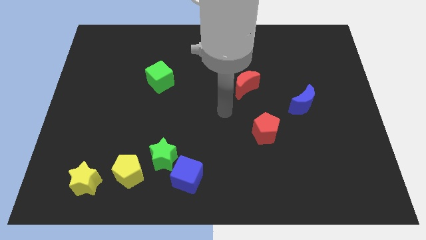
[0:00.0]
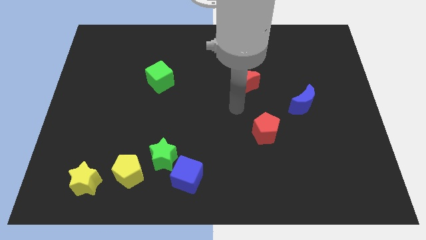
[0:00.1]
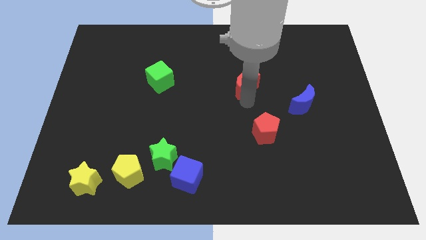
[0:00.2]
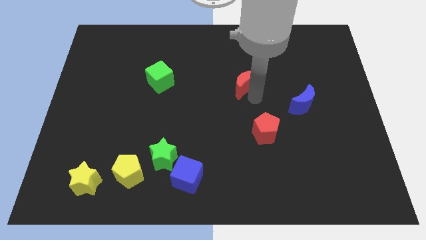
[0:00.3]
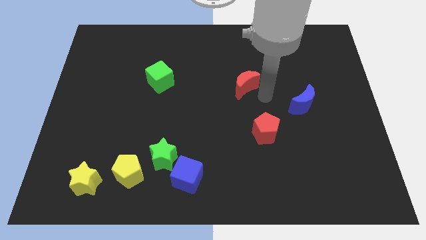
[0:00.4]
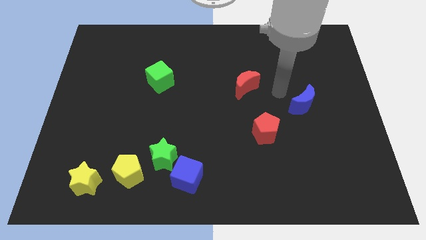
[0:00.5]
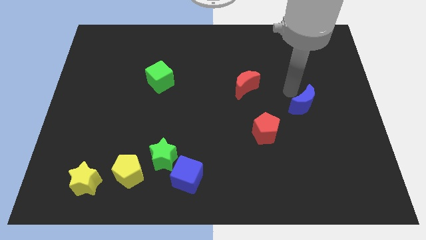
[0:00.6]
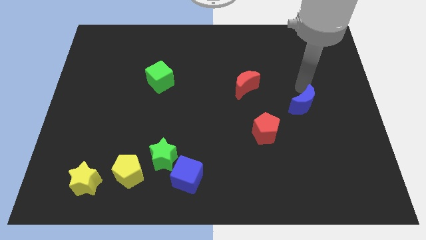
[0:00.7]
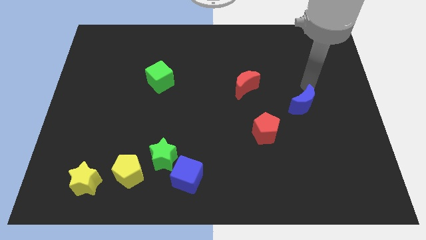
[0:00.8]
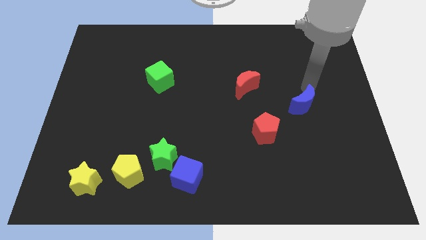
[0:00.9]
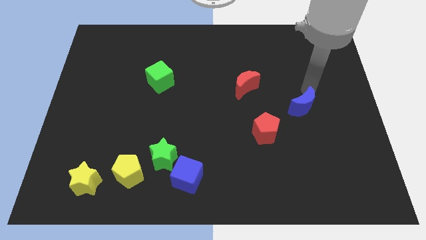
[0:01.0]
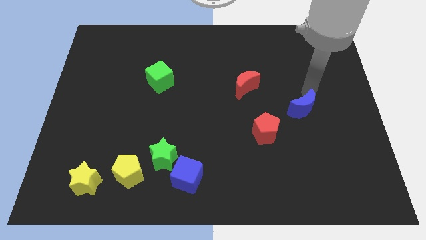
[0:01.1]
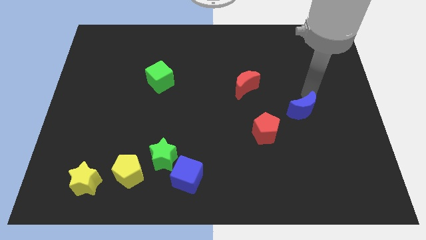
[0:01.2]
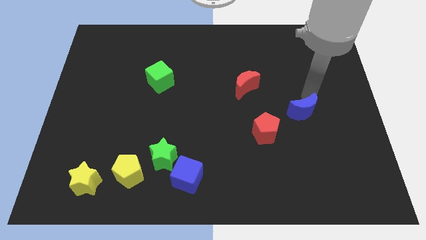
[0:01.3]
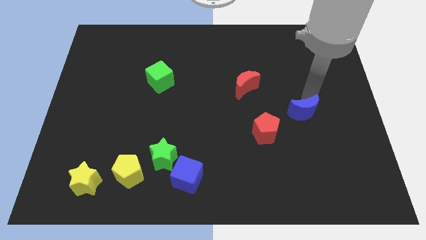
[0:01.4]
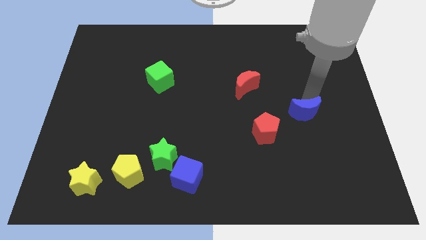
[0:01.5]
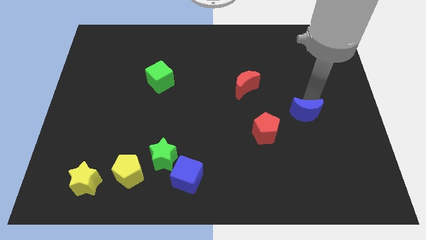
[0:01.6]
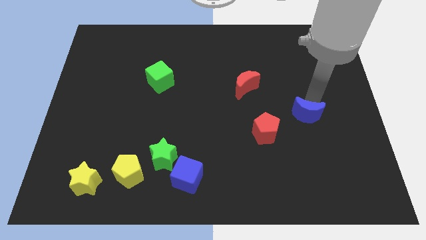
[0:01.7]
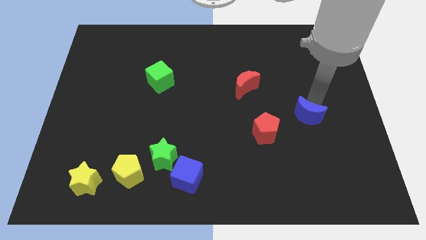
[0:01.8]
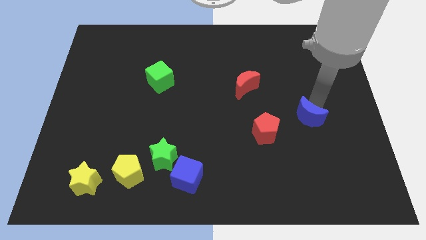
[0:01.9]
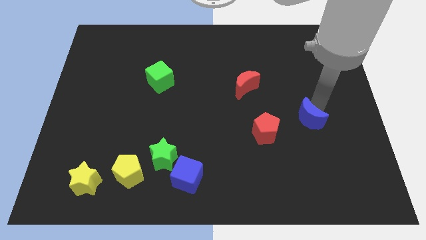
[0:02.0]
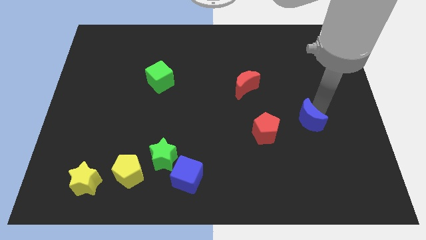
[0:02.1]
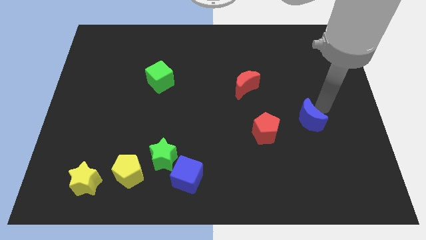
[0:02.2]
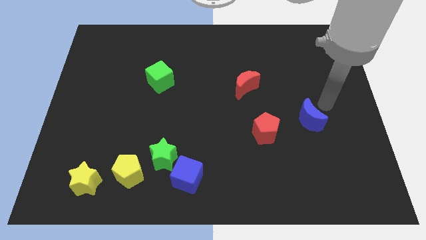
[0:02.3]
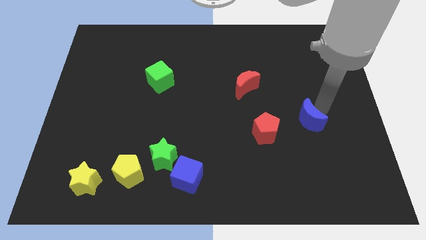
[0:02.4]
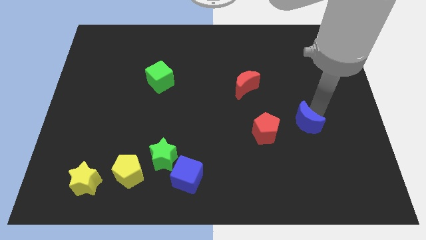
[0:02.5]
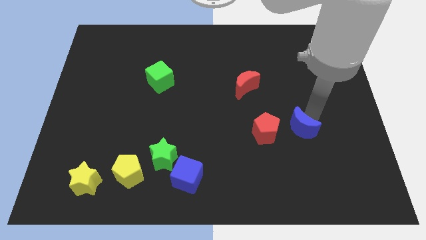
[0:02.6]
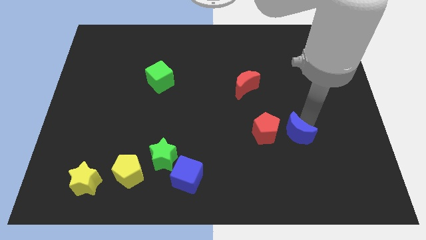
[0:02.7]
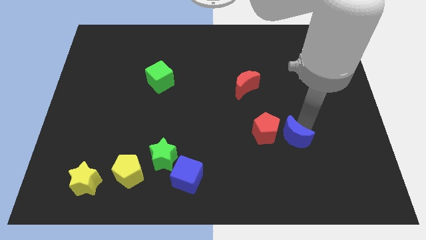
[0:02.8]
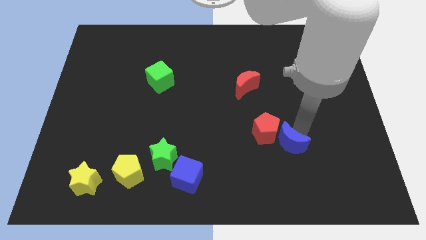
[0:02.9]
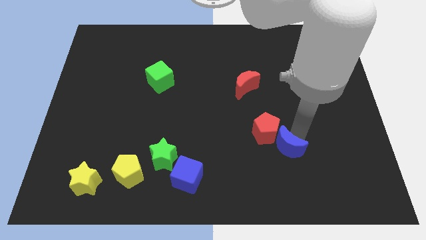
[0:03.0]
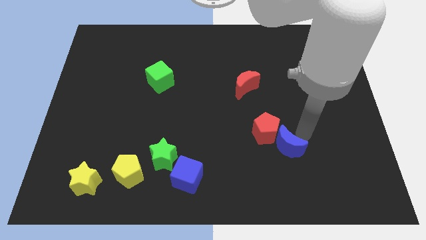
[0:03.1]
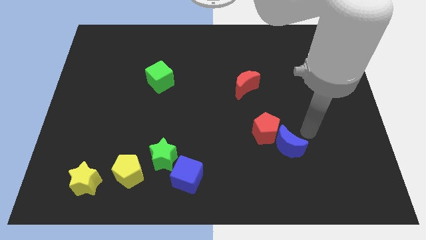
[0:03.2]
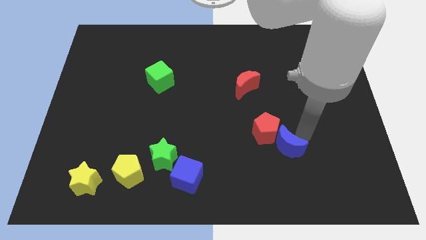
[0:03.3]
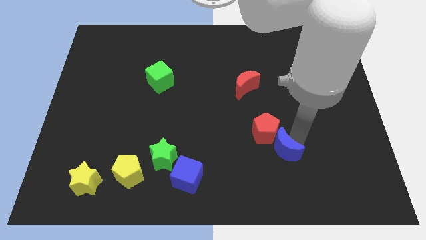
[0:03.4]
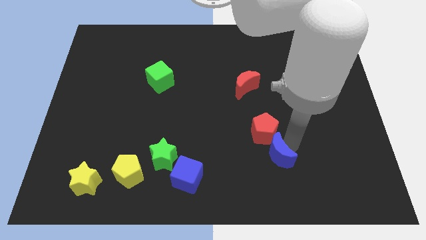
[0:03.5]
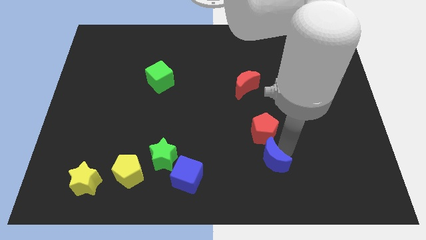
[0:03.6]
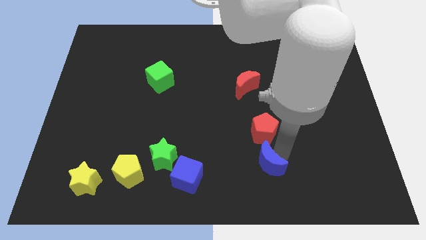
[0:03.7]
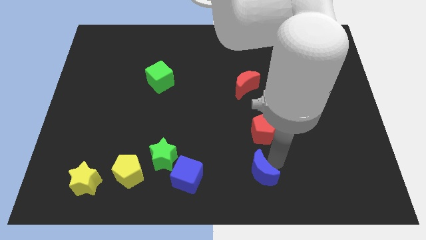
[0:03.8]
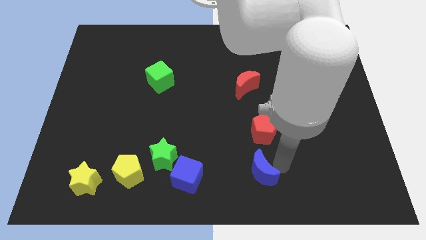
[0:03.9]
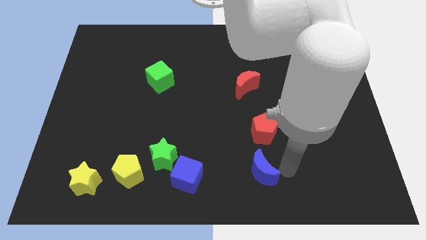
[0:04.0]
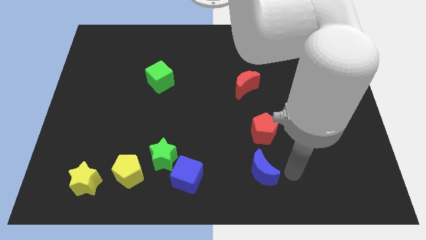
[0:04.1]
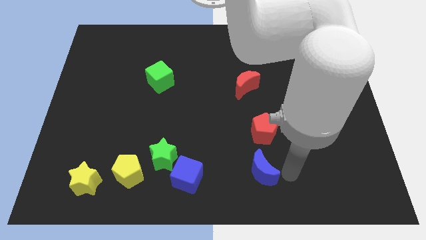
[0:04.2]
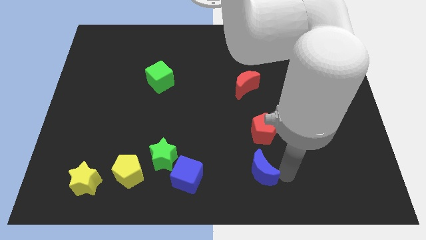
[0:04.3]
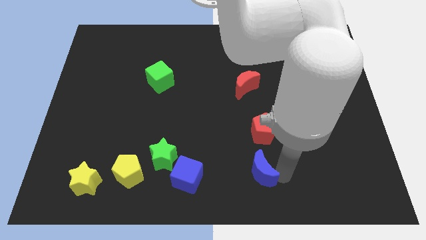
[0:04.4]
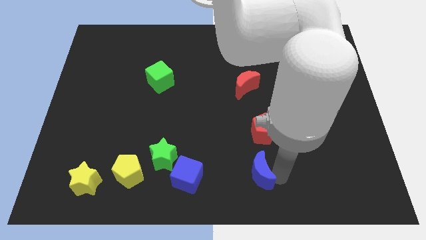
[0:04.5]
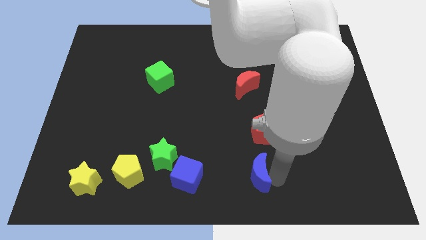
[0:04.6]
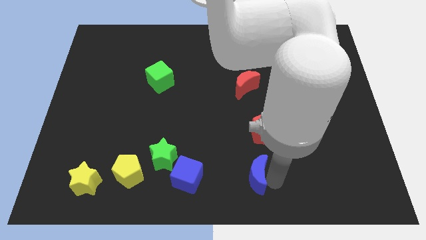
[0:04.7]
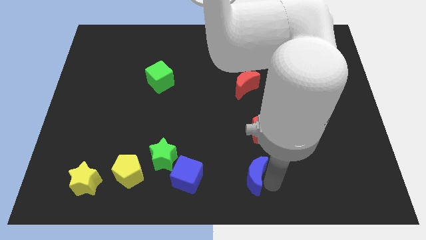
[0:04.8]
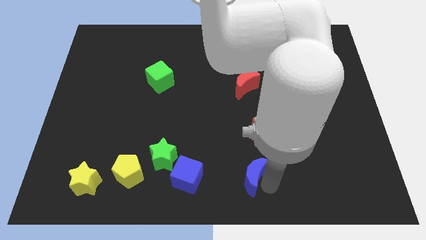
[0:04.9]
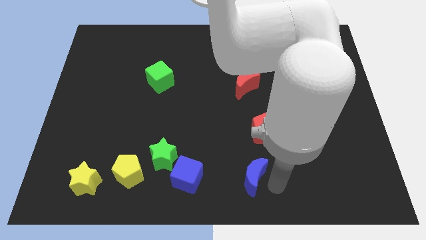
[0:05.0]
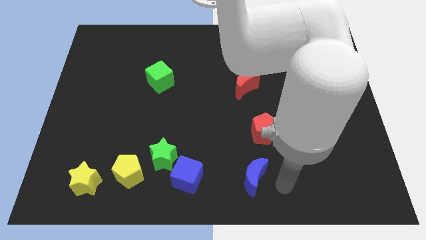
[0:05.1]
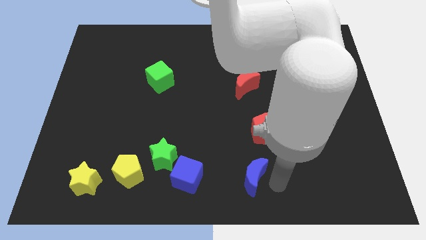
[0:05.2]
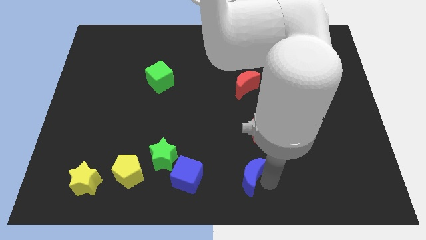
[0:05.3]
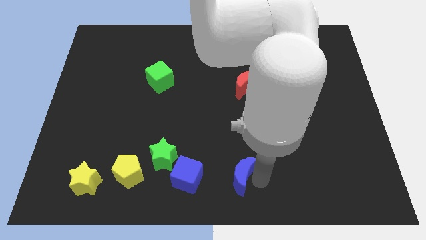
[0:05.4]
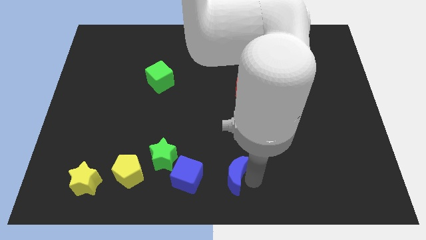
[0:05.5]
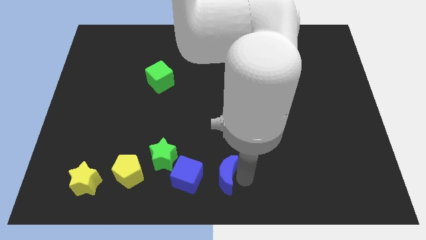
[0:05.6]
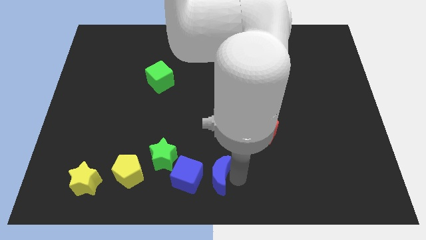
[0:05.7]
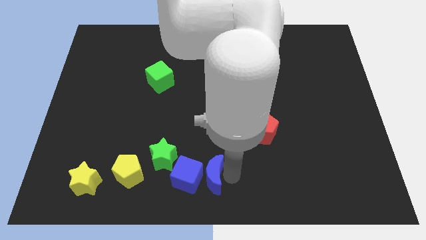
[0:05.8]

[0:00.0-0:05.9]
push the blue moon diagonally down and to the right of the green star

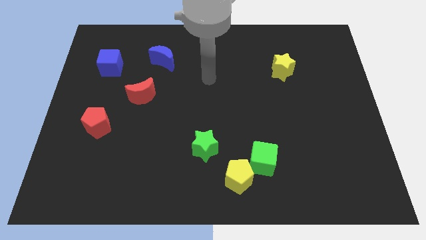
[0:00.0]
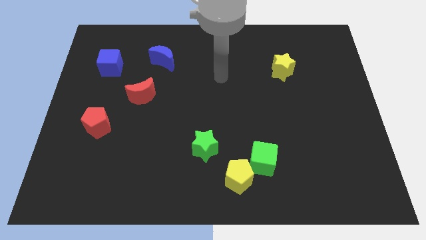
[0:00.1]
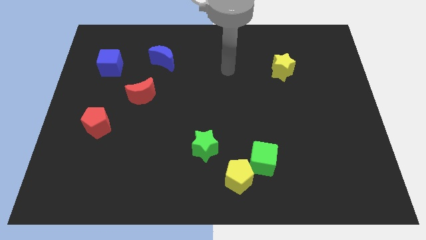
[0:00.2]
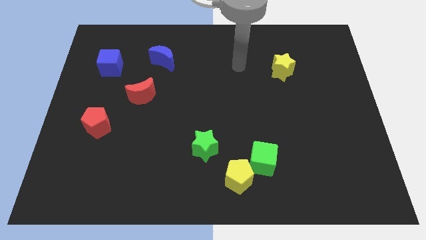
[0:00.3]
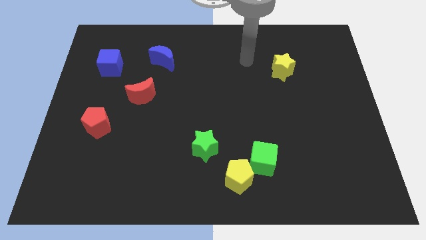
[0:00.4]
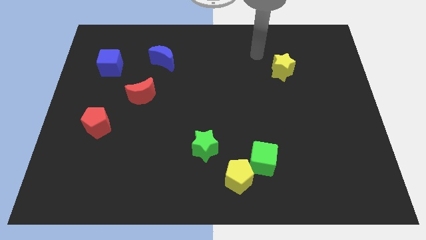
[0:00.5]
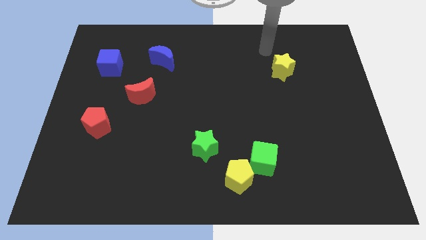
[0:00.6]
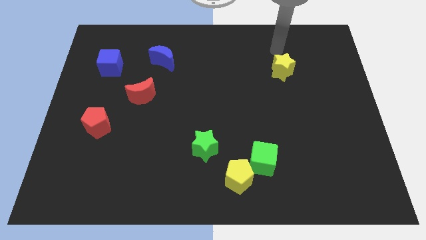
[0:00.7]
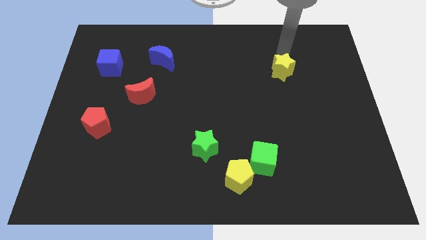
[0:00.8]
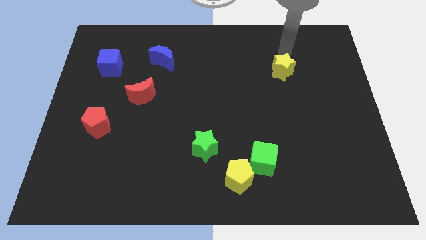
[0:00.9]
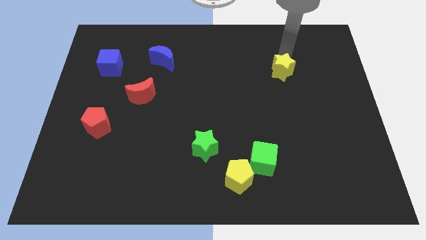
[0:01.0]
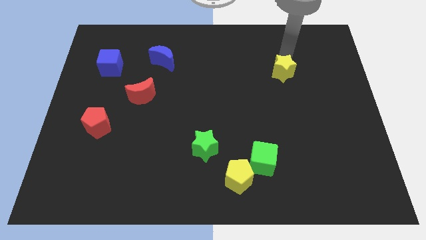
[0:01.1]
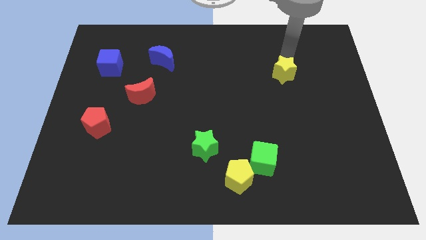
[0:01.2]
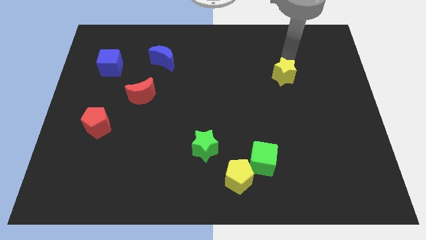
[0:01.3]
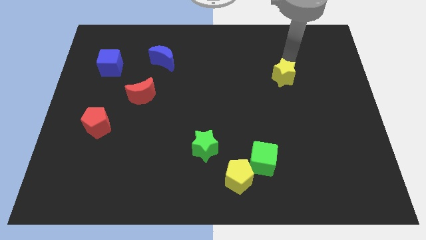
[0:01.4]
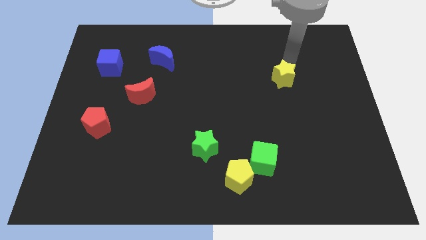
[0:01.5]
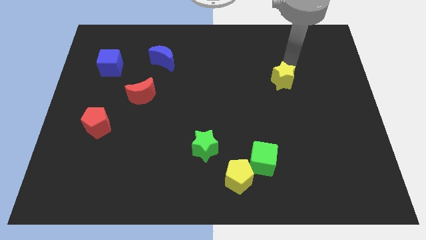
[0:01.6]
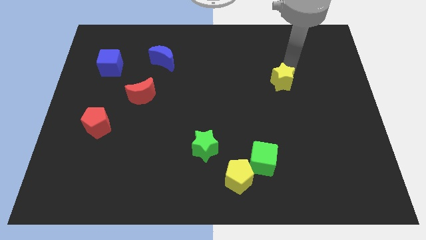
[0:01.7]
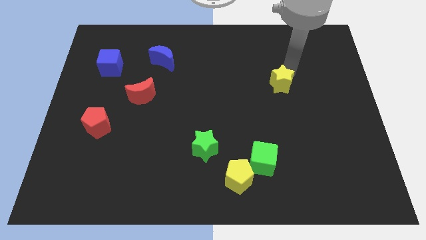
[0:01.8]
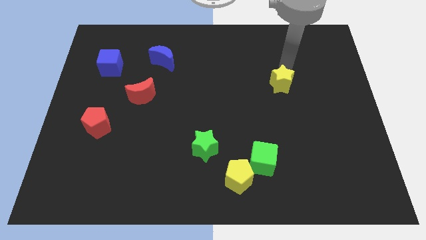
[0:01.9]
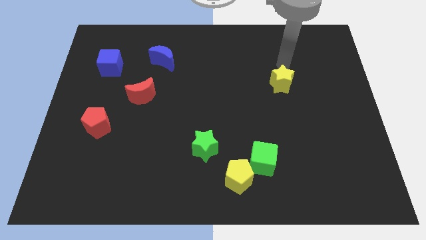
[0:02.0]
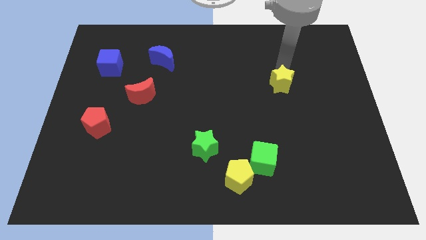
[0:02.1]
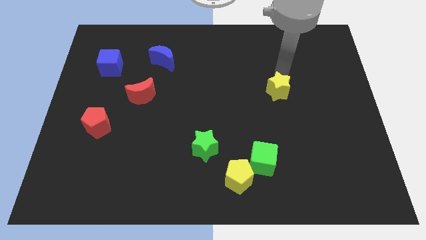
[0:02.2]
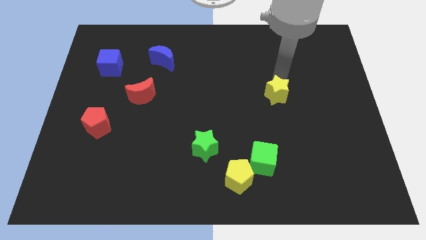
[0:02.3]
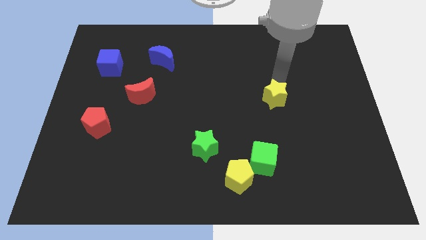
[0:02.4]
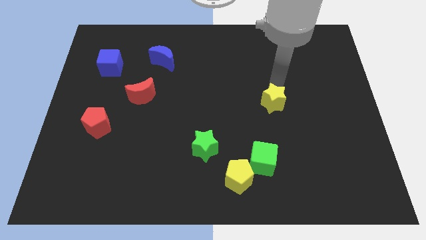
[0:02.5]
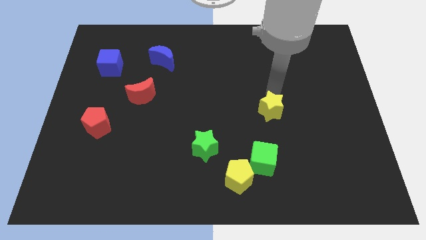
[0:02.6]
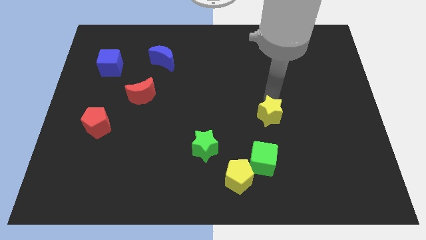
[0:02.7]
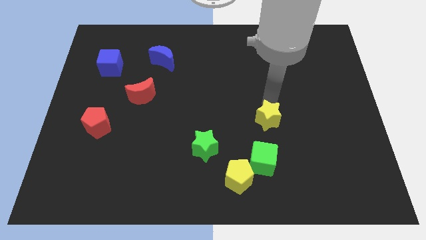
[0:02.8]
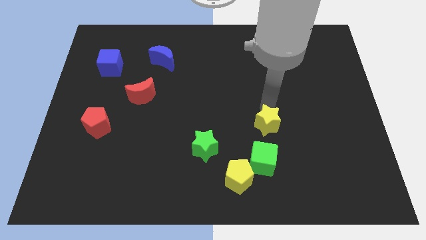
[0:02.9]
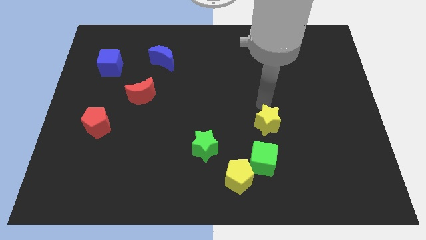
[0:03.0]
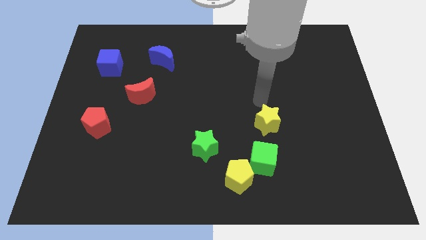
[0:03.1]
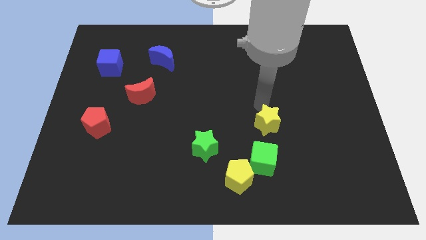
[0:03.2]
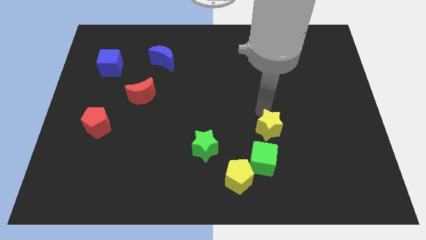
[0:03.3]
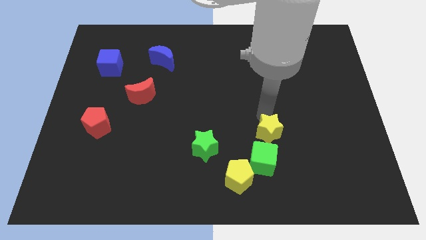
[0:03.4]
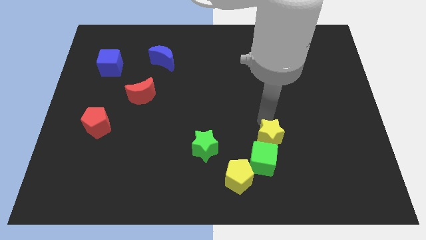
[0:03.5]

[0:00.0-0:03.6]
move the yellow star to the top right of the yellow pentagon
